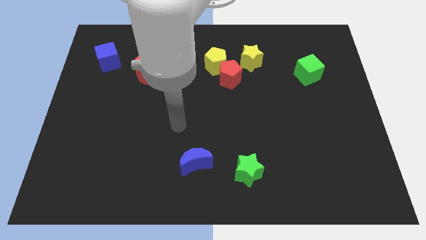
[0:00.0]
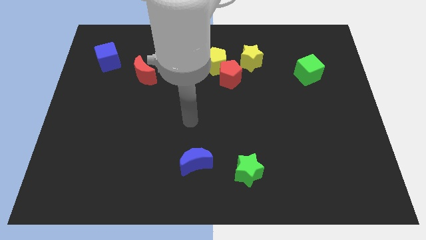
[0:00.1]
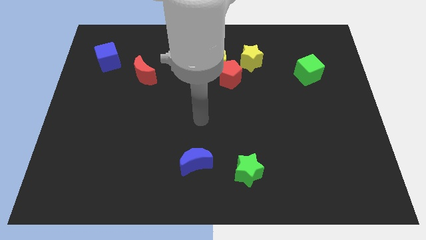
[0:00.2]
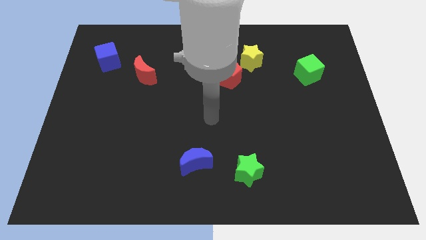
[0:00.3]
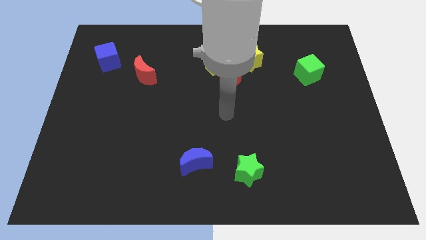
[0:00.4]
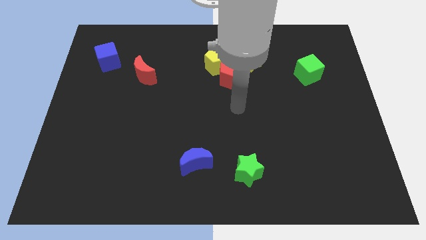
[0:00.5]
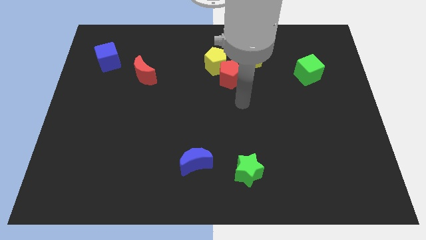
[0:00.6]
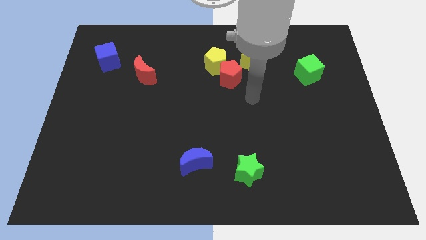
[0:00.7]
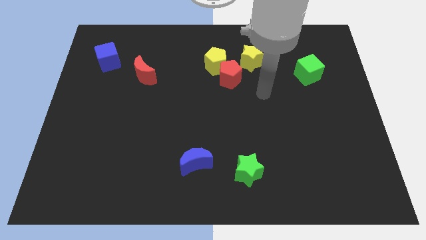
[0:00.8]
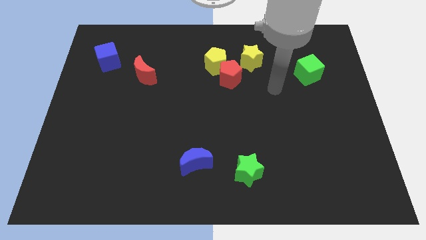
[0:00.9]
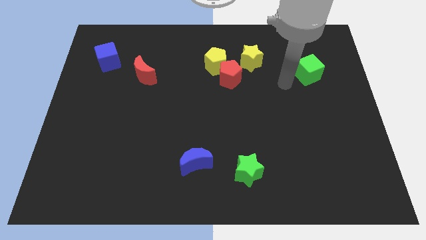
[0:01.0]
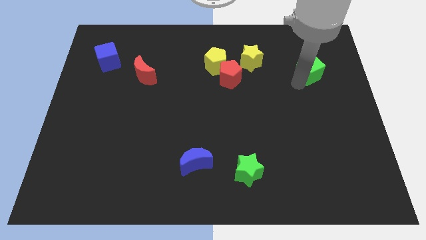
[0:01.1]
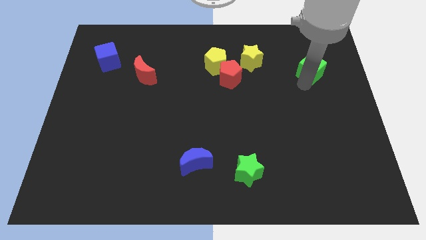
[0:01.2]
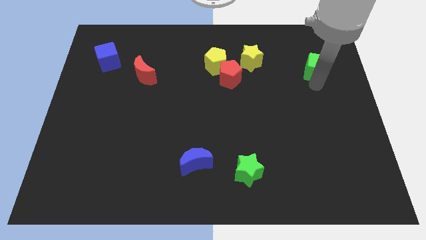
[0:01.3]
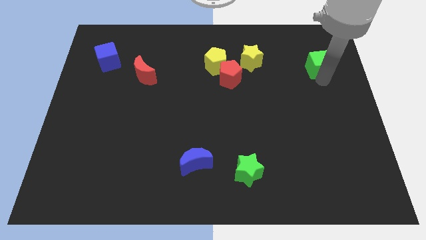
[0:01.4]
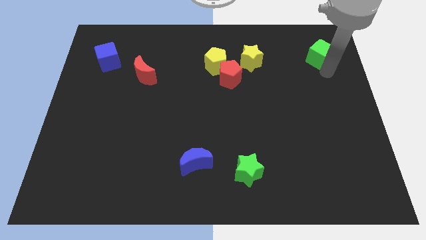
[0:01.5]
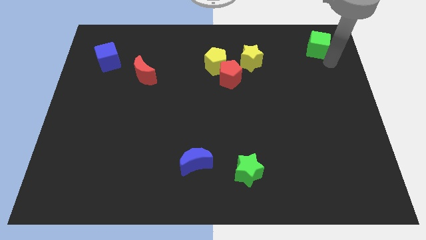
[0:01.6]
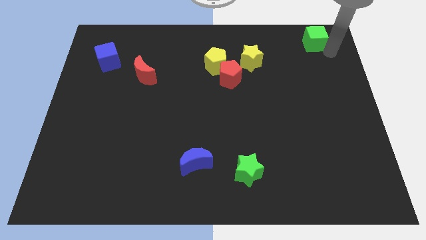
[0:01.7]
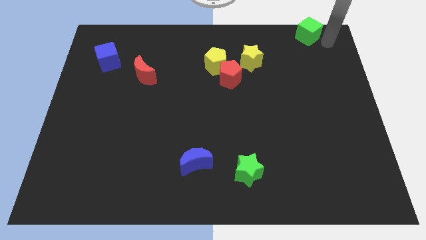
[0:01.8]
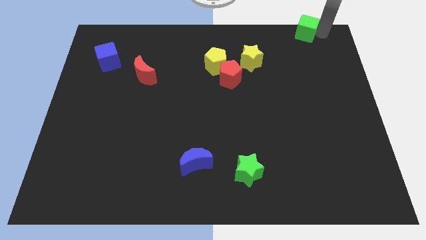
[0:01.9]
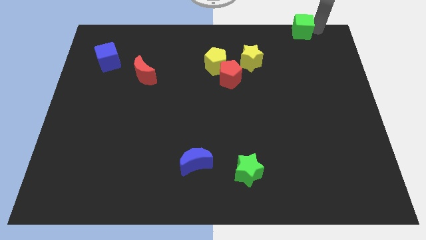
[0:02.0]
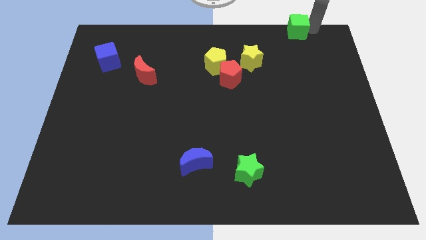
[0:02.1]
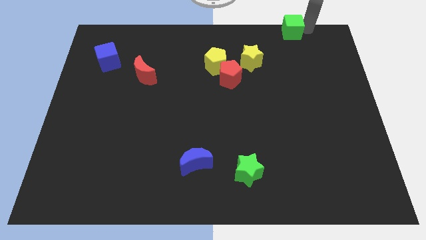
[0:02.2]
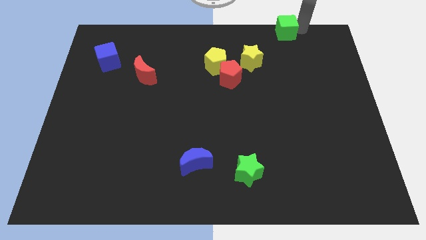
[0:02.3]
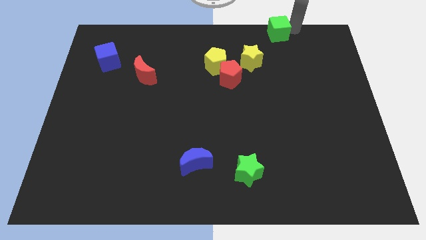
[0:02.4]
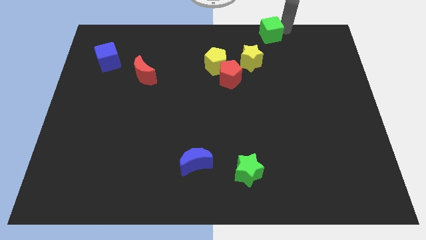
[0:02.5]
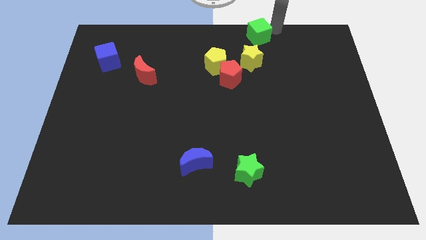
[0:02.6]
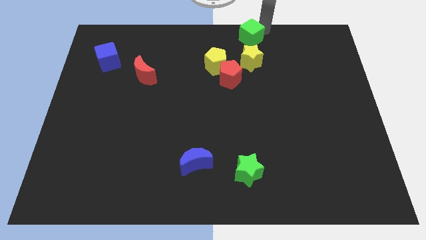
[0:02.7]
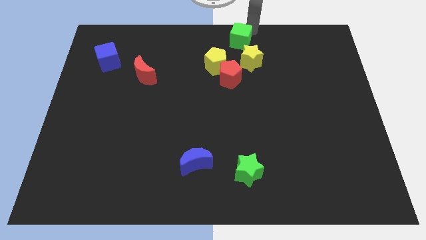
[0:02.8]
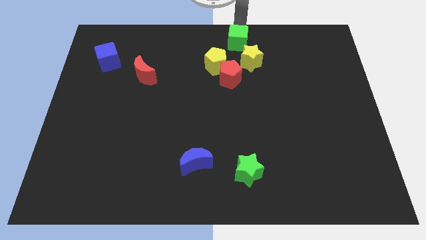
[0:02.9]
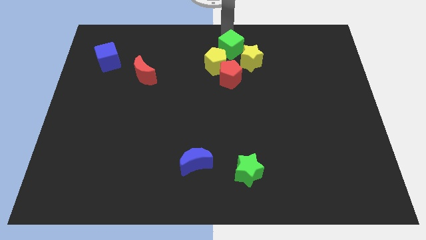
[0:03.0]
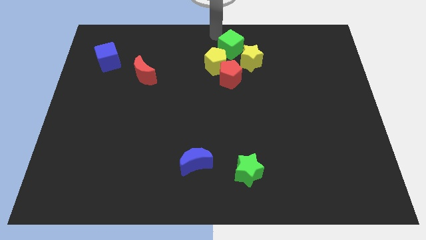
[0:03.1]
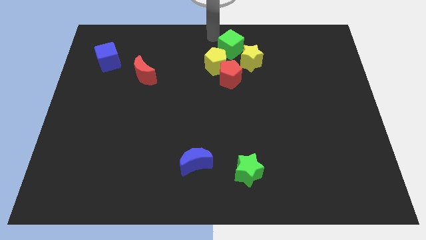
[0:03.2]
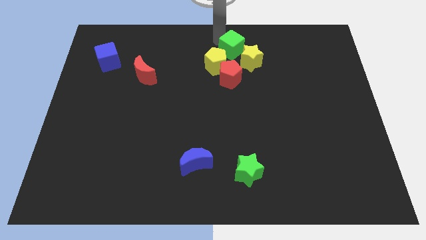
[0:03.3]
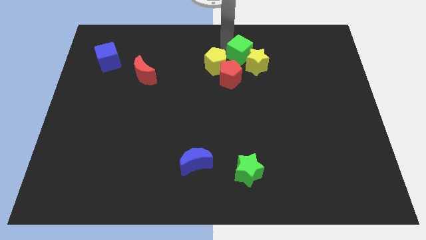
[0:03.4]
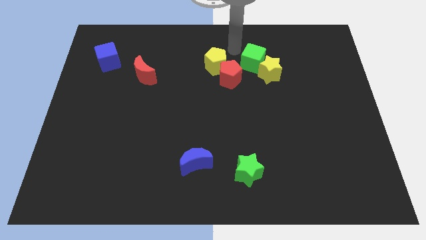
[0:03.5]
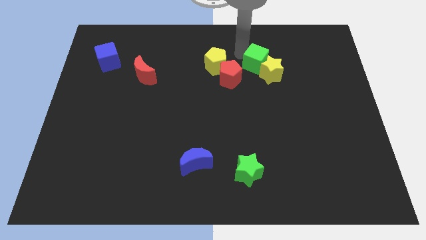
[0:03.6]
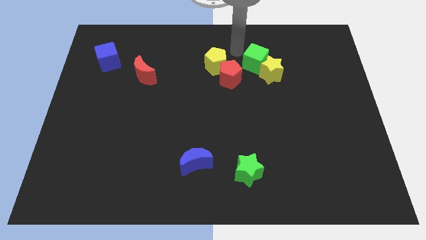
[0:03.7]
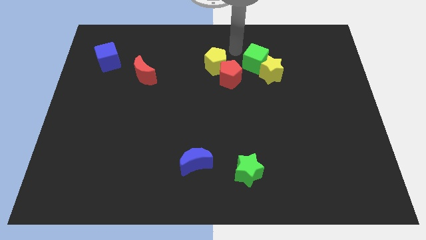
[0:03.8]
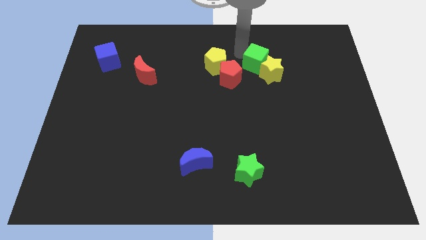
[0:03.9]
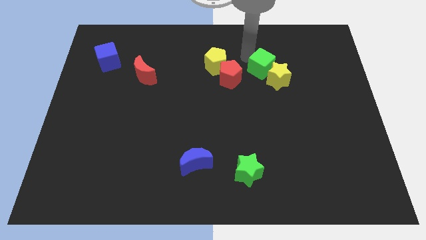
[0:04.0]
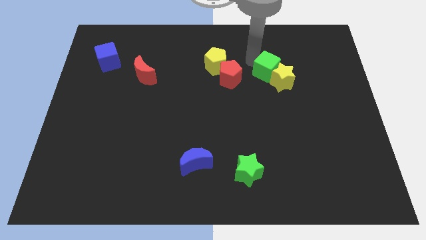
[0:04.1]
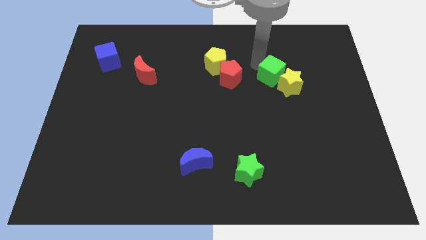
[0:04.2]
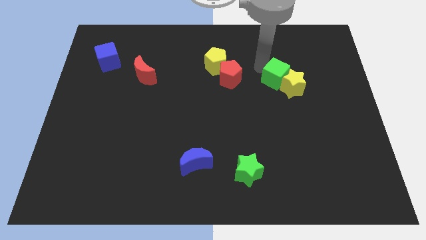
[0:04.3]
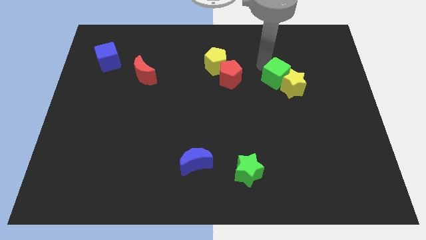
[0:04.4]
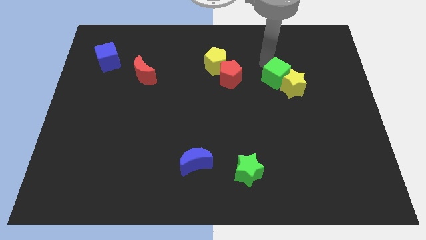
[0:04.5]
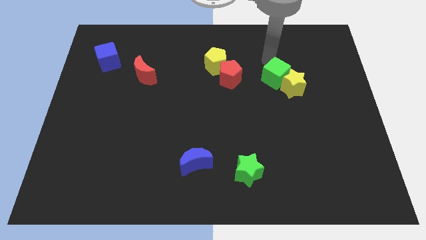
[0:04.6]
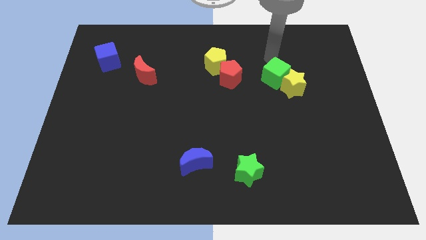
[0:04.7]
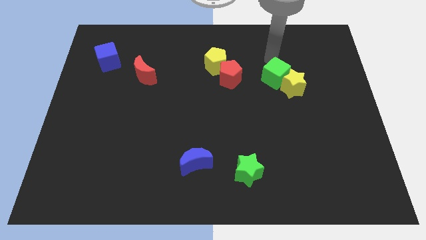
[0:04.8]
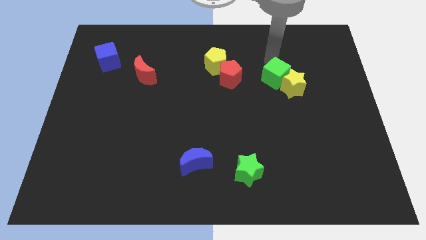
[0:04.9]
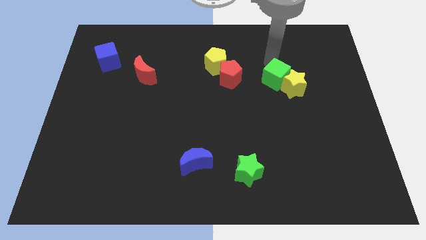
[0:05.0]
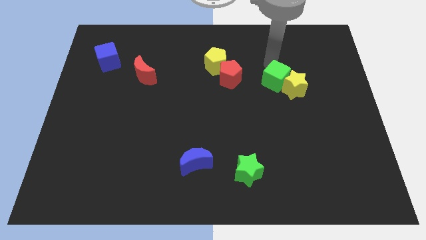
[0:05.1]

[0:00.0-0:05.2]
move the green cube downwards and then left somewhat

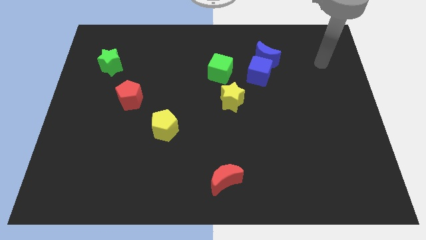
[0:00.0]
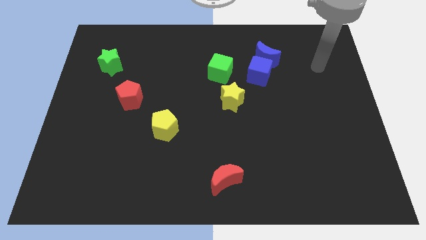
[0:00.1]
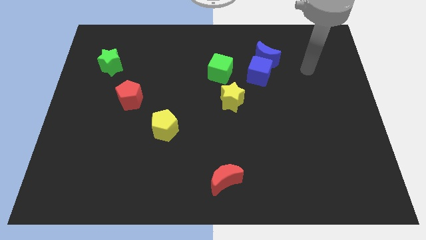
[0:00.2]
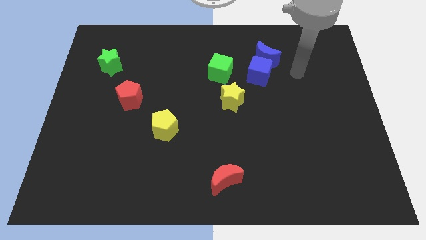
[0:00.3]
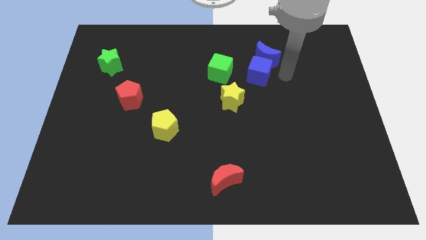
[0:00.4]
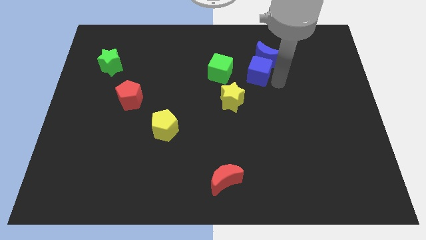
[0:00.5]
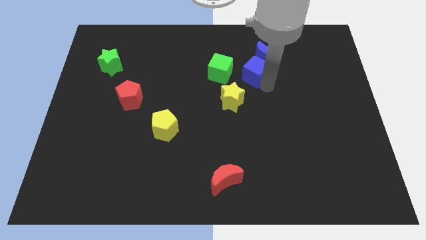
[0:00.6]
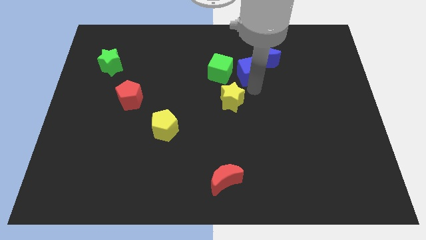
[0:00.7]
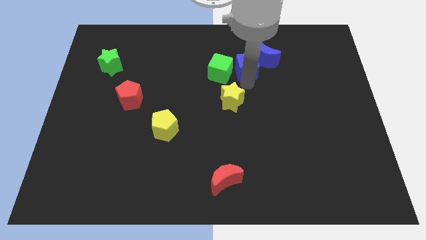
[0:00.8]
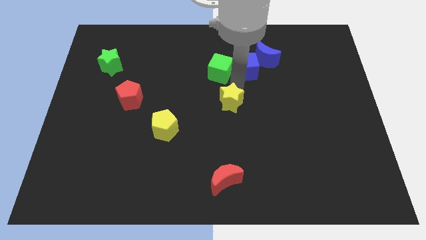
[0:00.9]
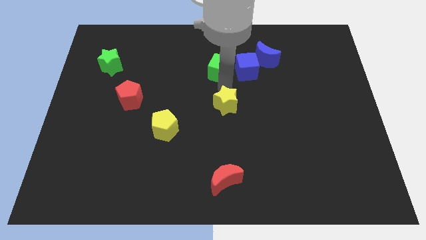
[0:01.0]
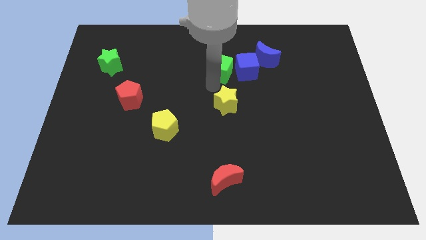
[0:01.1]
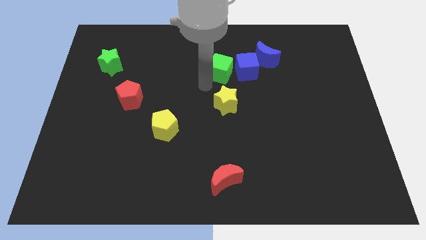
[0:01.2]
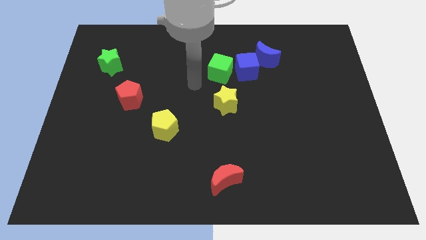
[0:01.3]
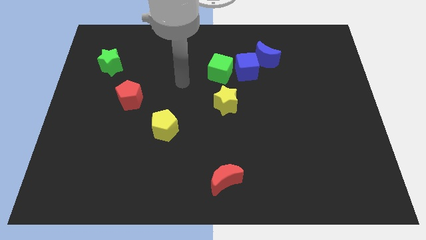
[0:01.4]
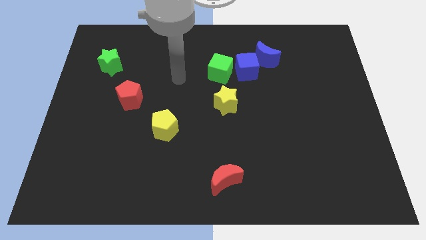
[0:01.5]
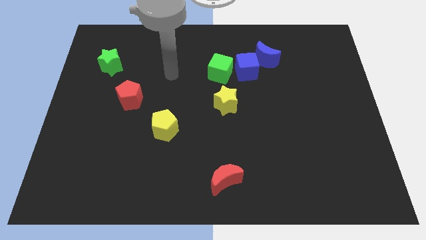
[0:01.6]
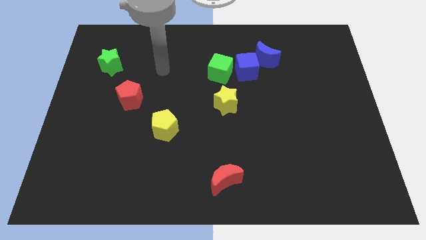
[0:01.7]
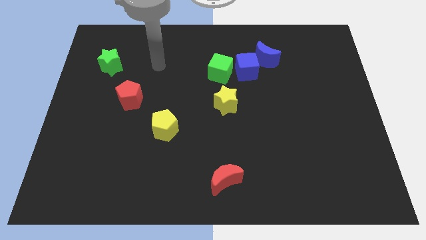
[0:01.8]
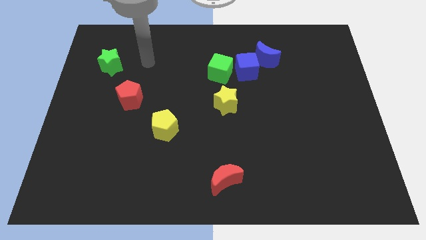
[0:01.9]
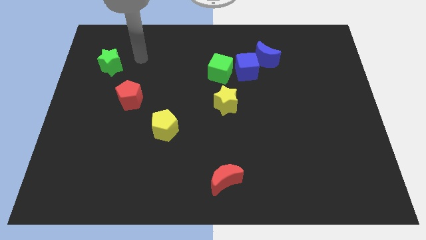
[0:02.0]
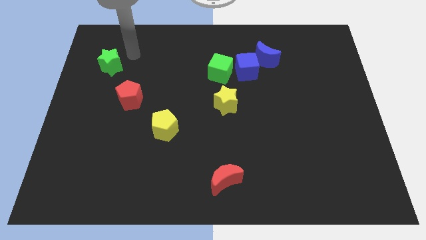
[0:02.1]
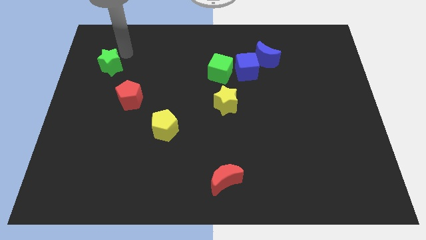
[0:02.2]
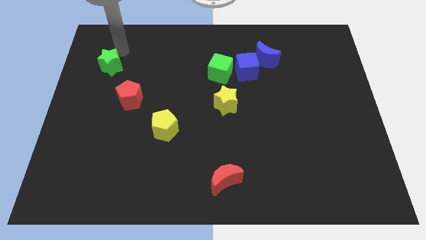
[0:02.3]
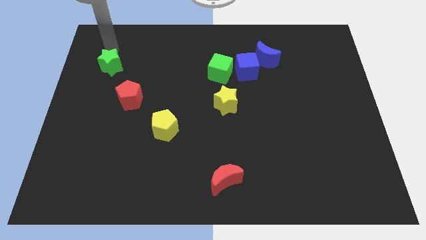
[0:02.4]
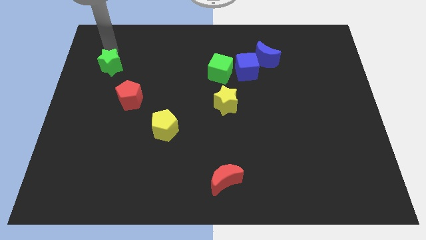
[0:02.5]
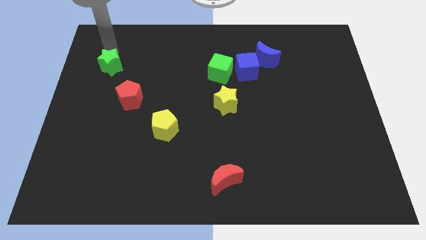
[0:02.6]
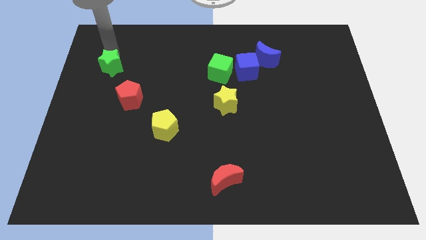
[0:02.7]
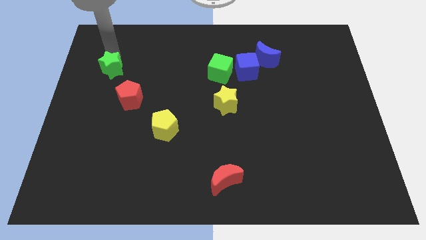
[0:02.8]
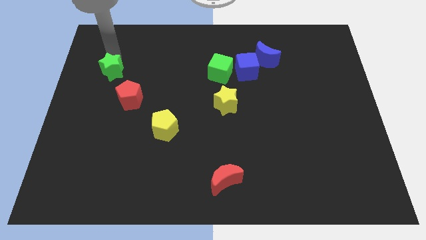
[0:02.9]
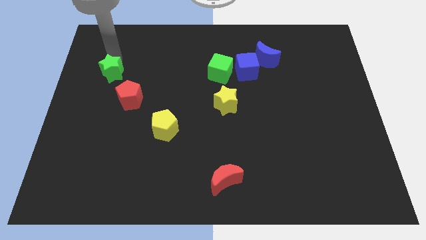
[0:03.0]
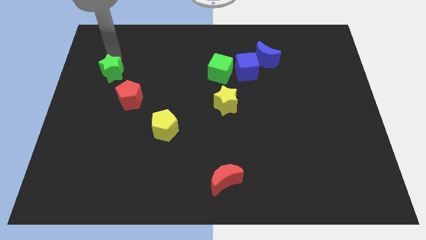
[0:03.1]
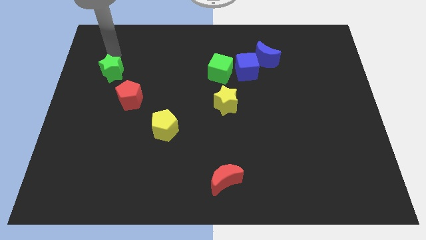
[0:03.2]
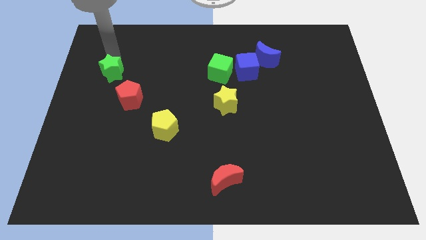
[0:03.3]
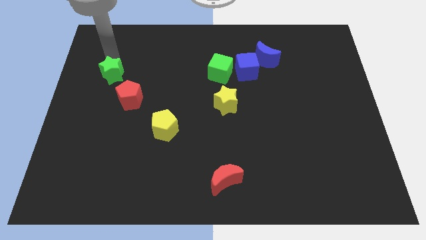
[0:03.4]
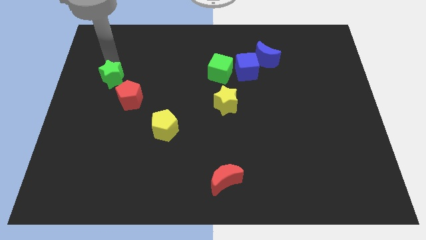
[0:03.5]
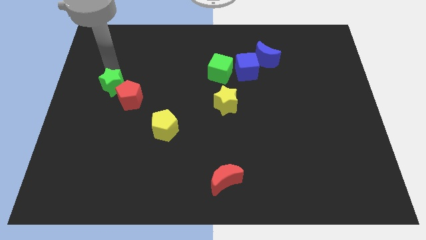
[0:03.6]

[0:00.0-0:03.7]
move the green star down slightly
